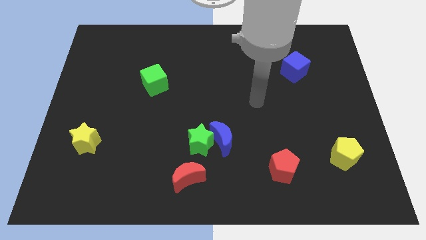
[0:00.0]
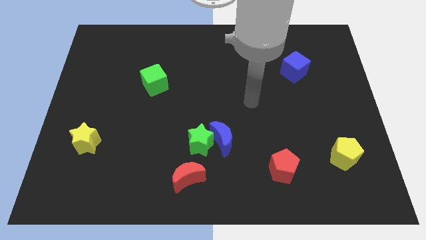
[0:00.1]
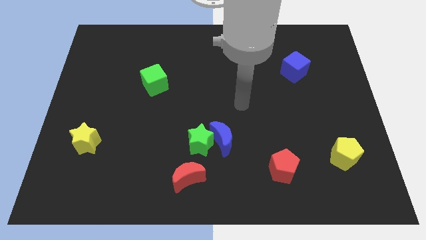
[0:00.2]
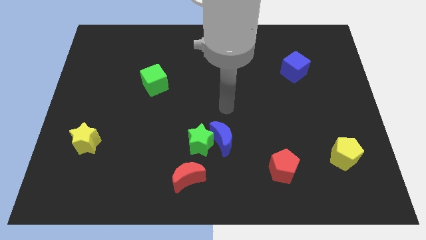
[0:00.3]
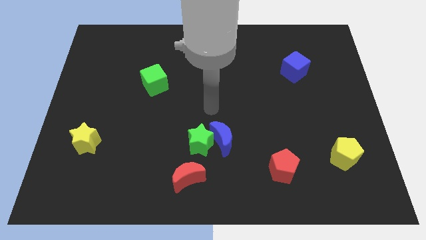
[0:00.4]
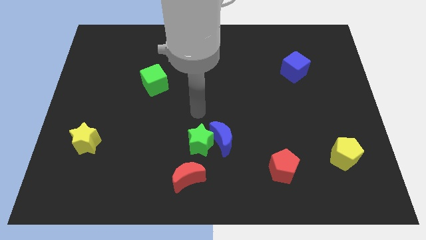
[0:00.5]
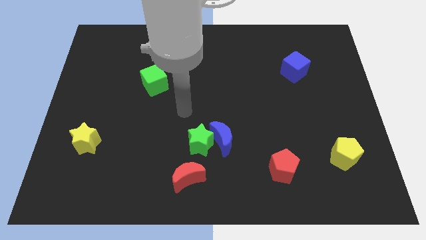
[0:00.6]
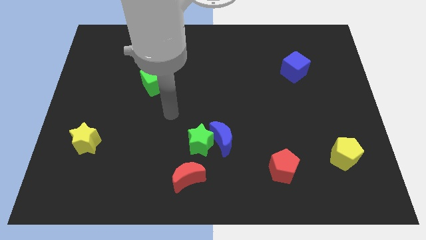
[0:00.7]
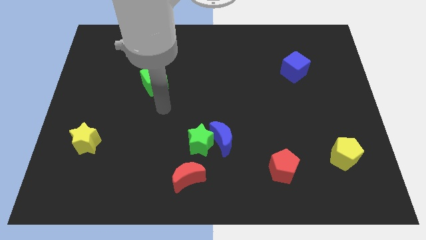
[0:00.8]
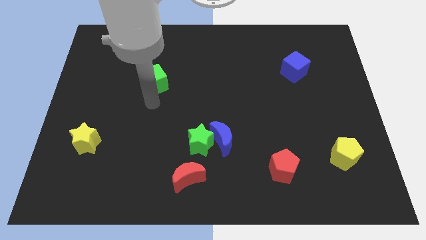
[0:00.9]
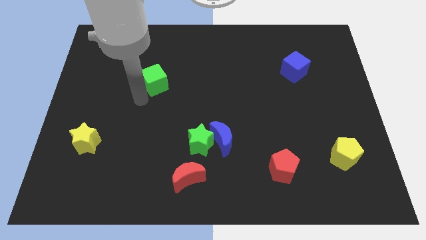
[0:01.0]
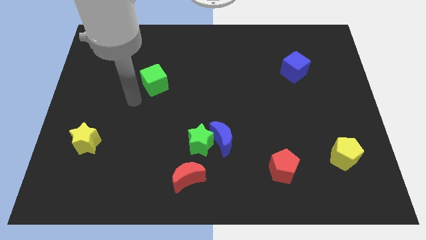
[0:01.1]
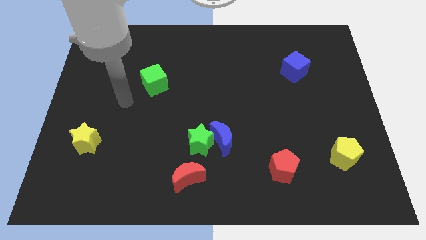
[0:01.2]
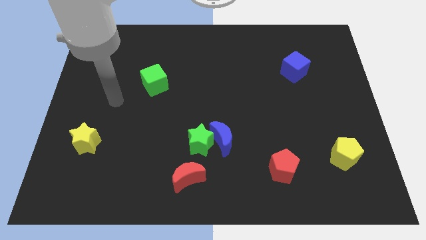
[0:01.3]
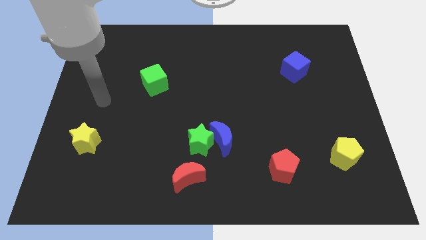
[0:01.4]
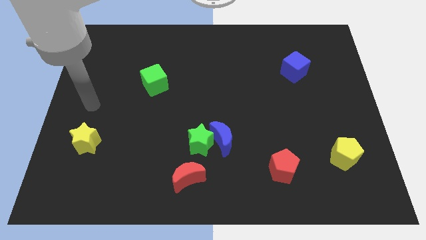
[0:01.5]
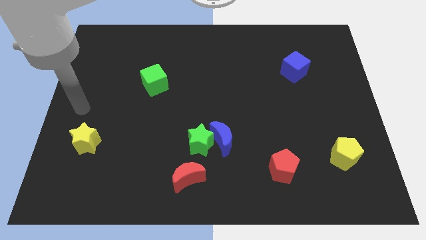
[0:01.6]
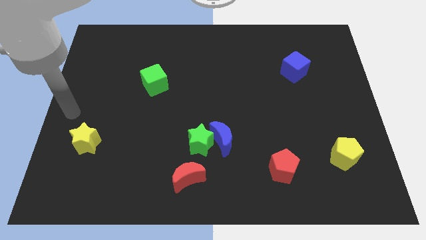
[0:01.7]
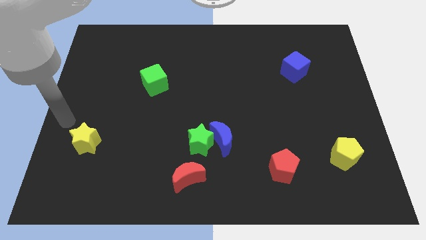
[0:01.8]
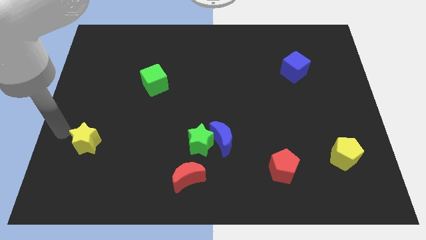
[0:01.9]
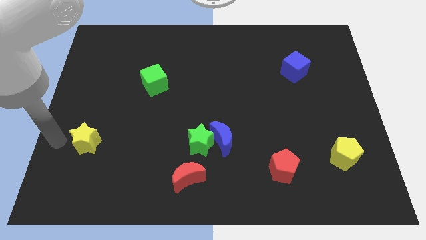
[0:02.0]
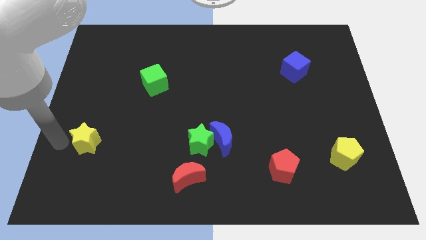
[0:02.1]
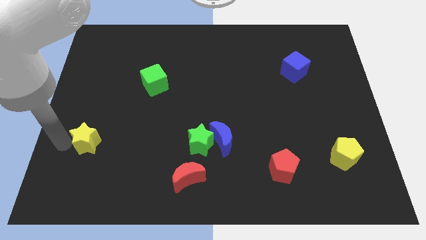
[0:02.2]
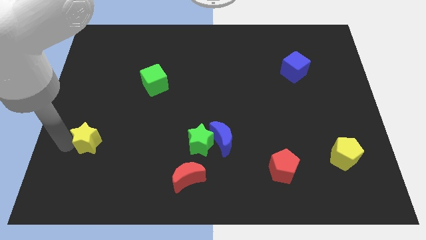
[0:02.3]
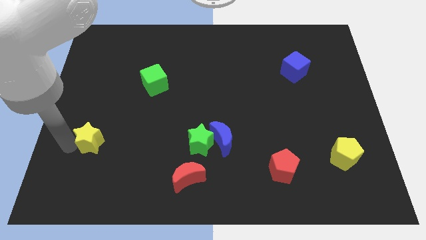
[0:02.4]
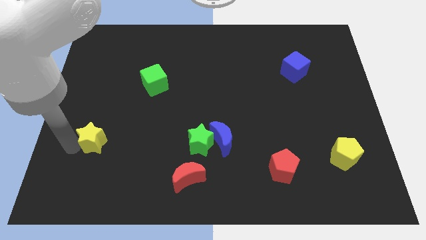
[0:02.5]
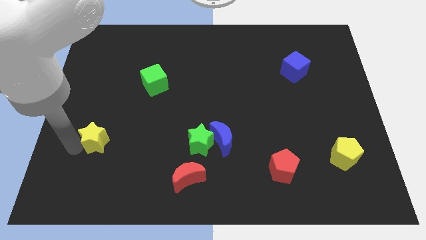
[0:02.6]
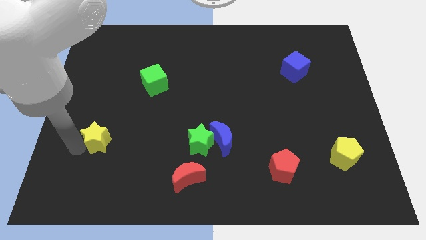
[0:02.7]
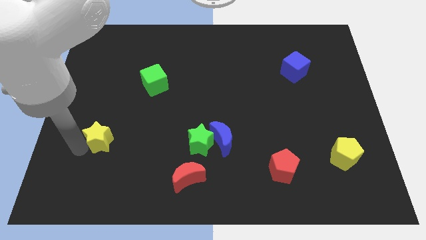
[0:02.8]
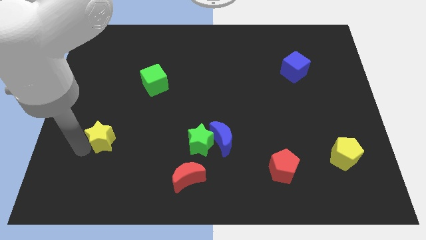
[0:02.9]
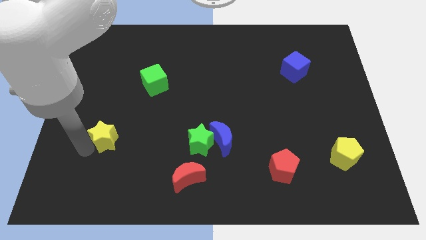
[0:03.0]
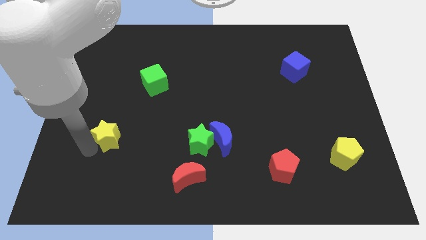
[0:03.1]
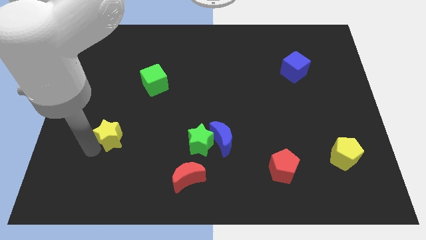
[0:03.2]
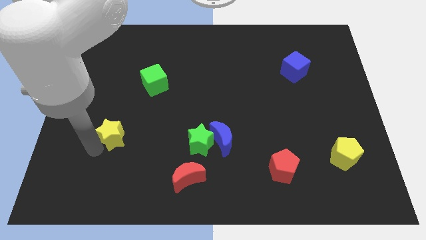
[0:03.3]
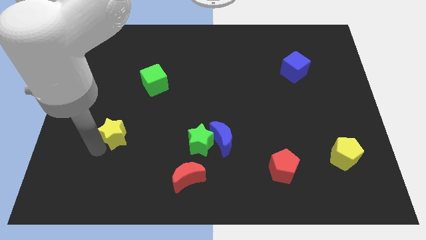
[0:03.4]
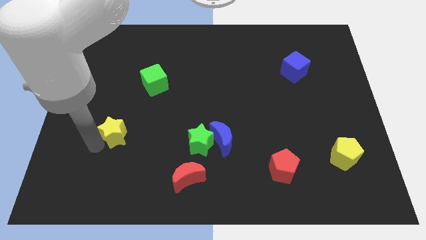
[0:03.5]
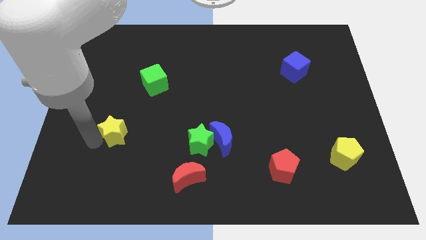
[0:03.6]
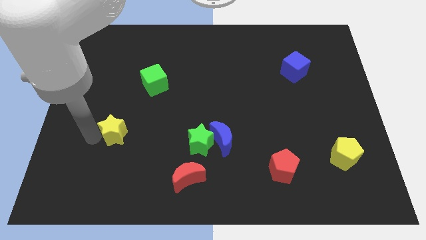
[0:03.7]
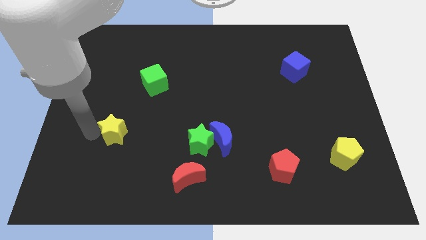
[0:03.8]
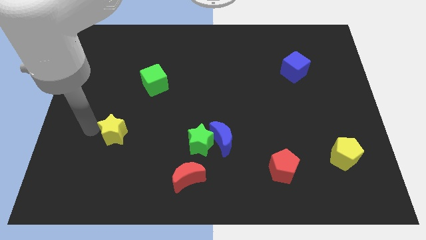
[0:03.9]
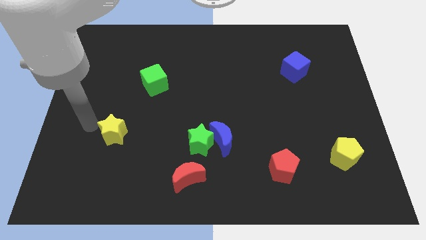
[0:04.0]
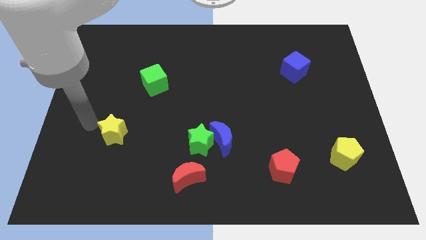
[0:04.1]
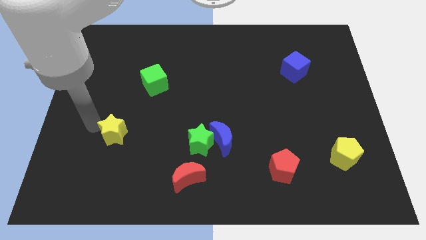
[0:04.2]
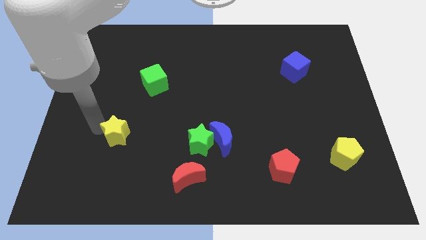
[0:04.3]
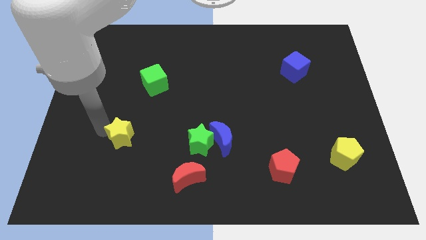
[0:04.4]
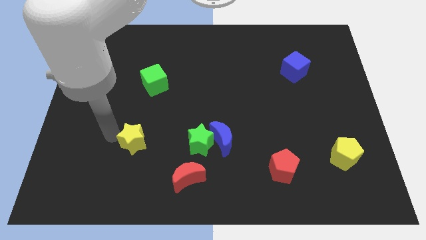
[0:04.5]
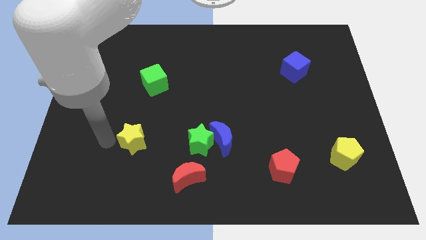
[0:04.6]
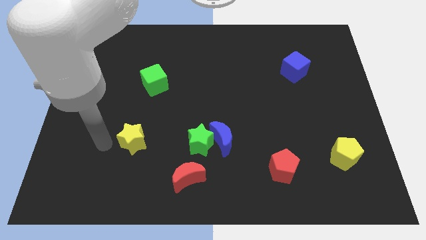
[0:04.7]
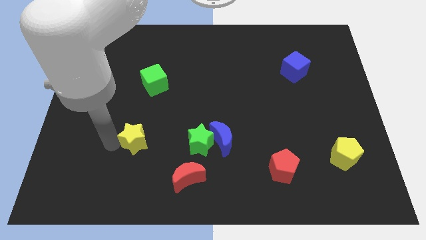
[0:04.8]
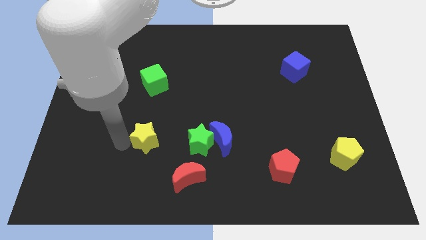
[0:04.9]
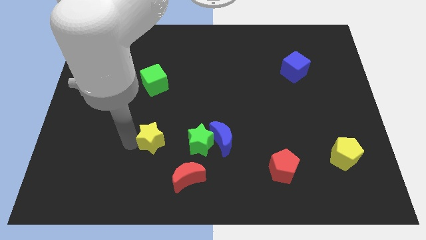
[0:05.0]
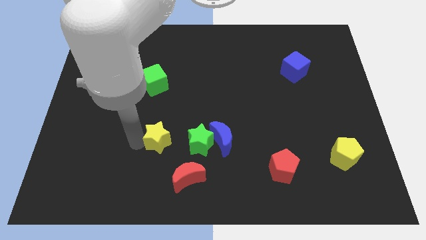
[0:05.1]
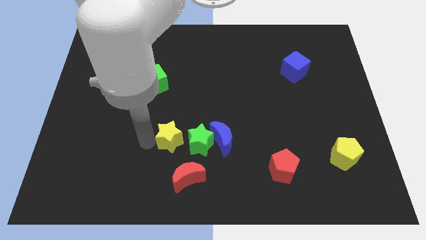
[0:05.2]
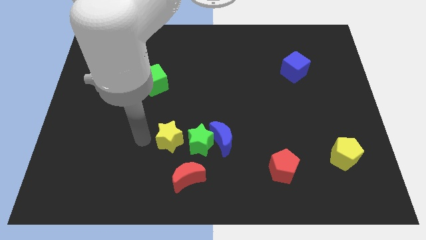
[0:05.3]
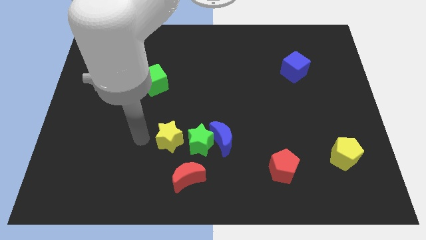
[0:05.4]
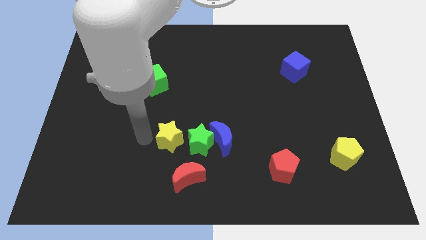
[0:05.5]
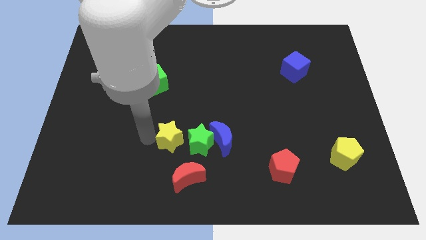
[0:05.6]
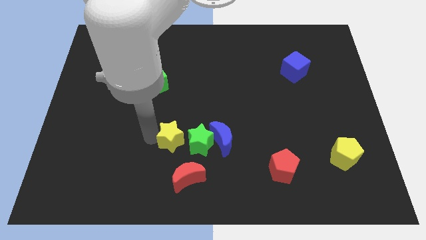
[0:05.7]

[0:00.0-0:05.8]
move the yellow star next to the green star

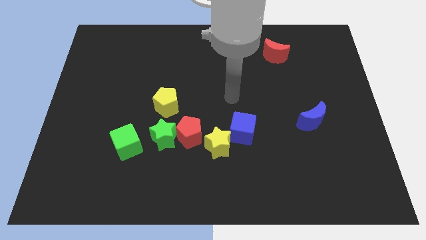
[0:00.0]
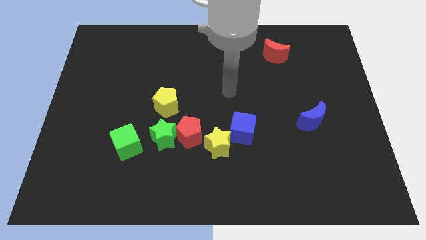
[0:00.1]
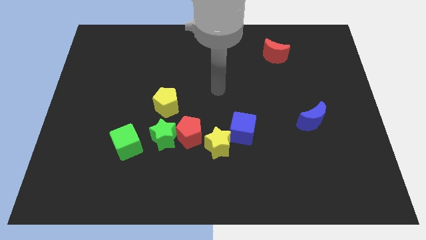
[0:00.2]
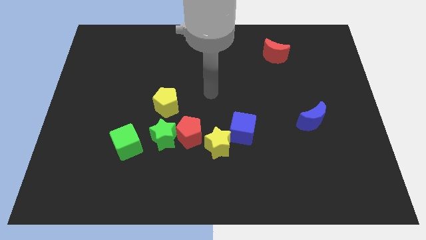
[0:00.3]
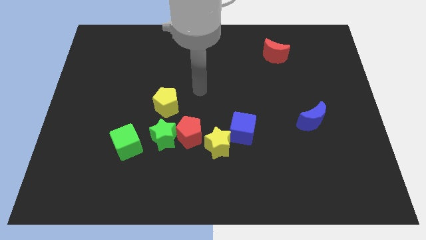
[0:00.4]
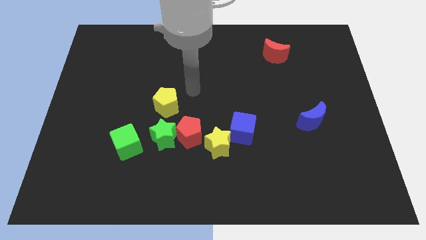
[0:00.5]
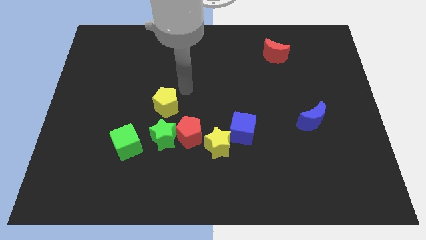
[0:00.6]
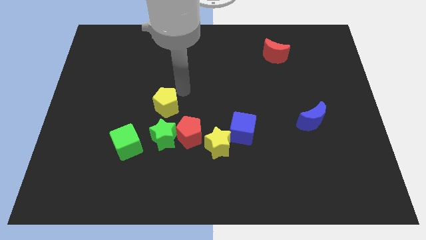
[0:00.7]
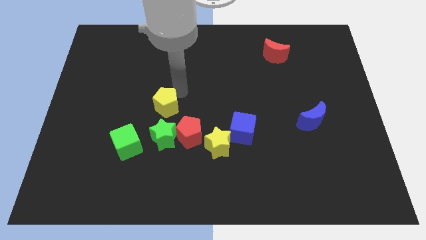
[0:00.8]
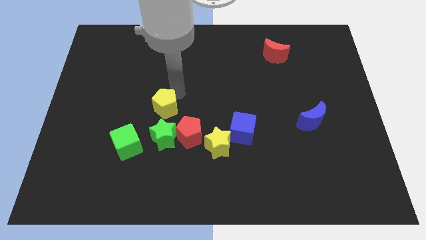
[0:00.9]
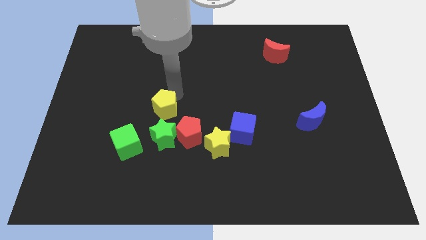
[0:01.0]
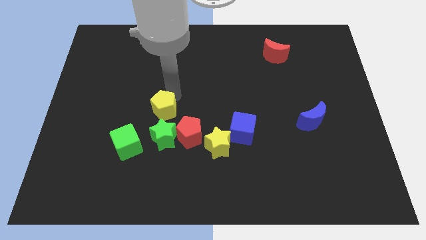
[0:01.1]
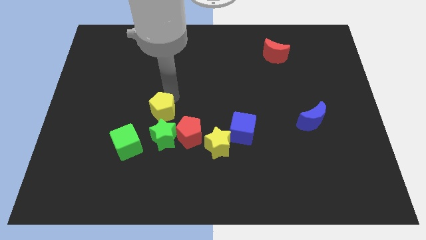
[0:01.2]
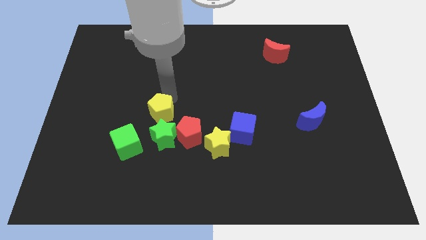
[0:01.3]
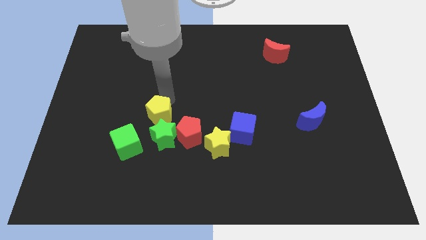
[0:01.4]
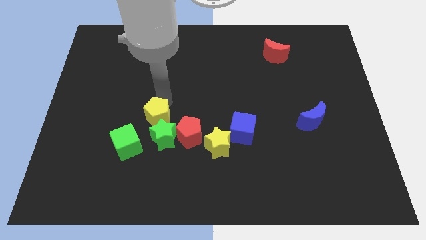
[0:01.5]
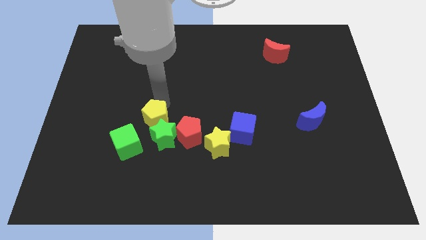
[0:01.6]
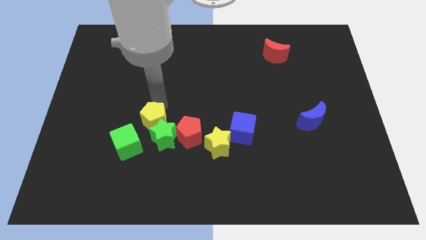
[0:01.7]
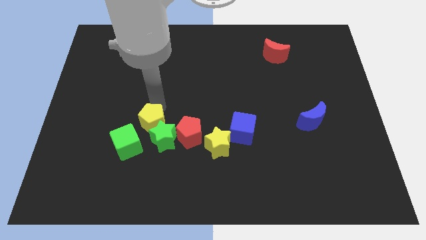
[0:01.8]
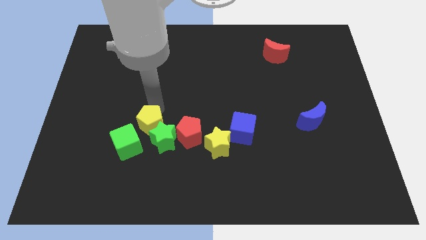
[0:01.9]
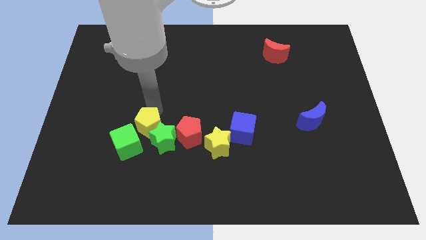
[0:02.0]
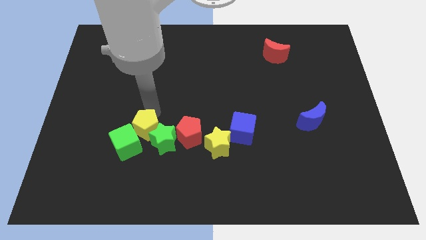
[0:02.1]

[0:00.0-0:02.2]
put the yellow pentagon towards the green cube
